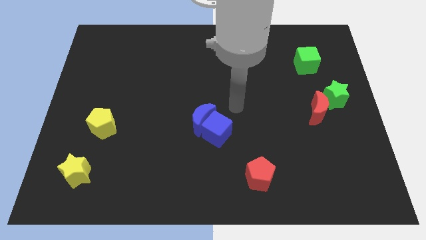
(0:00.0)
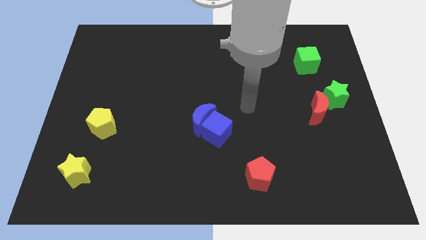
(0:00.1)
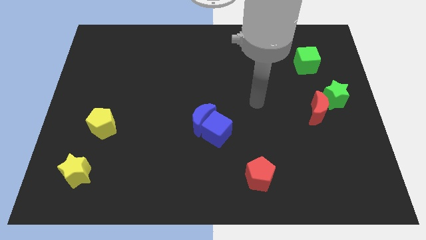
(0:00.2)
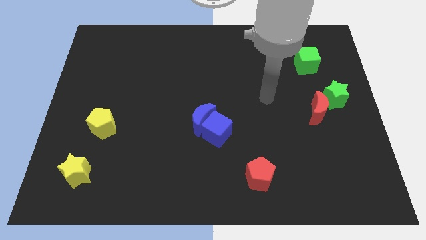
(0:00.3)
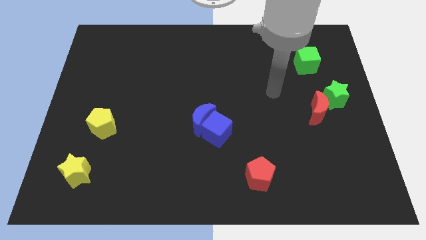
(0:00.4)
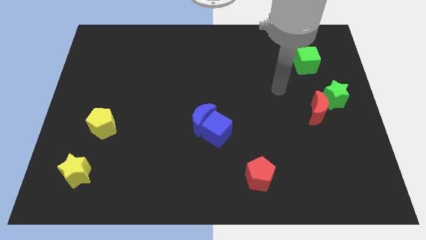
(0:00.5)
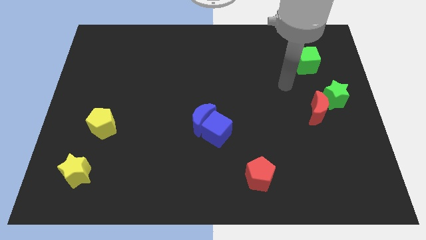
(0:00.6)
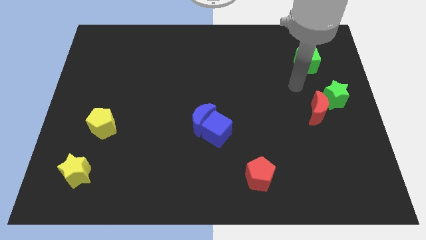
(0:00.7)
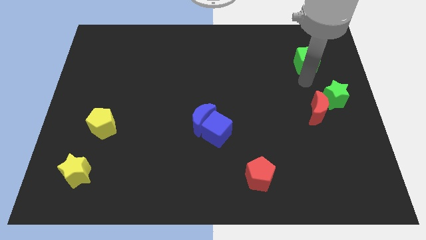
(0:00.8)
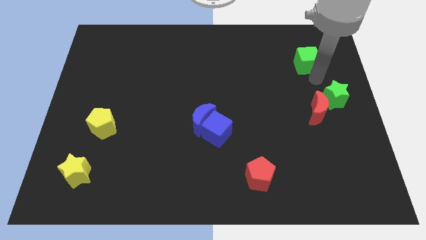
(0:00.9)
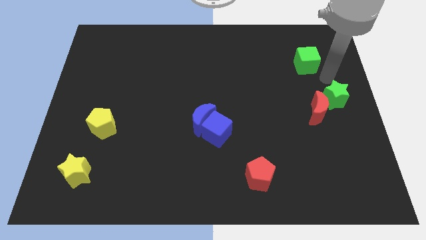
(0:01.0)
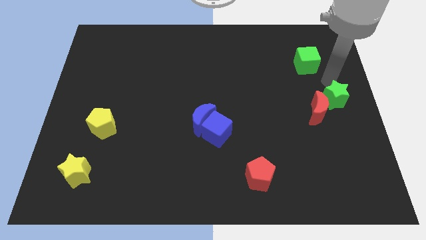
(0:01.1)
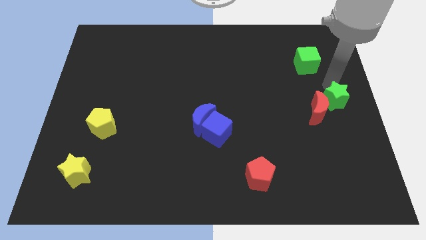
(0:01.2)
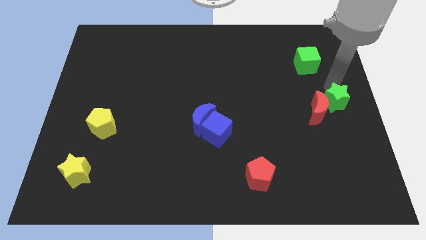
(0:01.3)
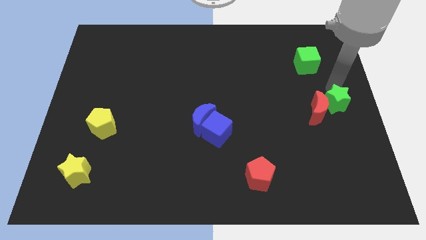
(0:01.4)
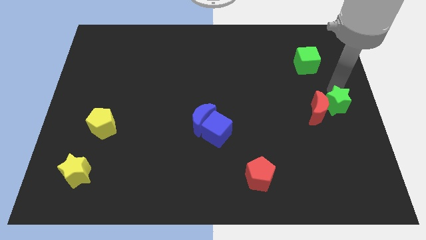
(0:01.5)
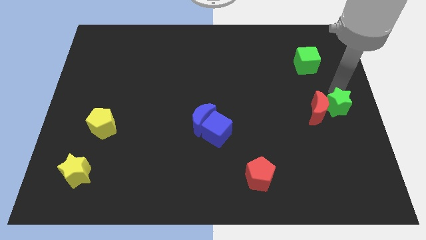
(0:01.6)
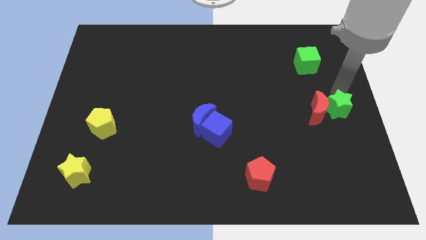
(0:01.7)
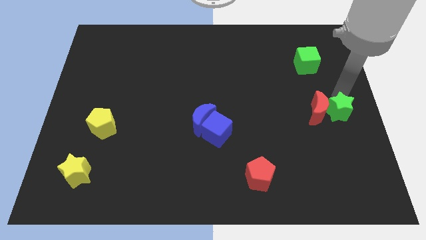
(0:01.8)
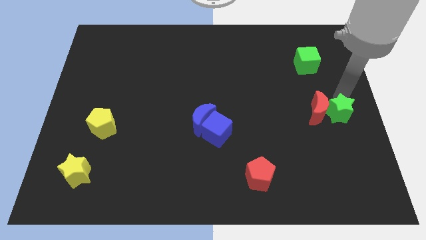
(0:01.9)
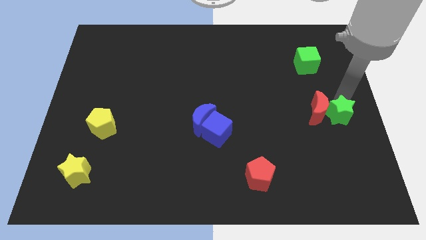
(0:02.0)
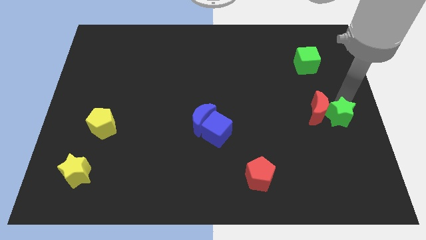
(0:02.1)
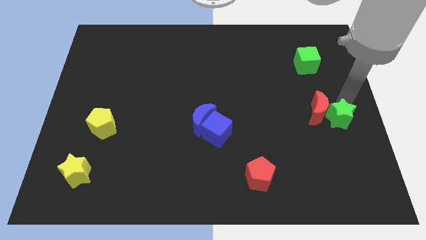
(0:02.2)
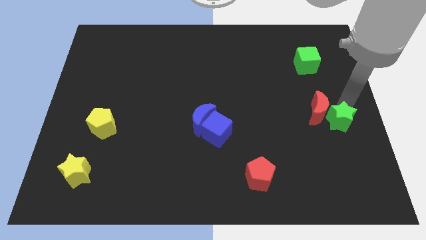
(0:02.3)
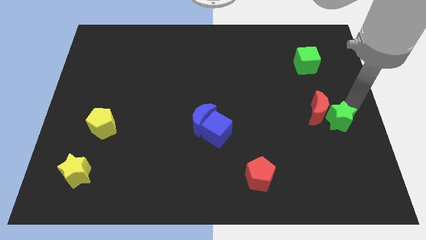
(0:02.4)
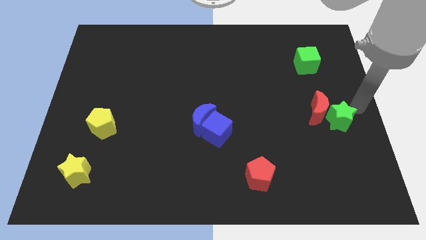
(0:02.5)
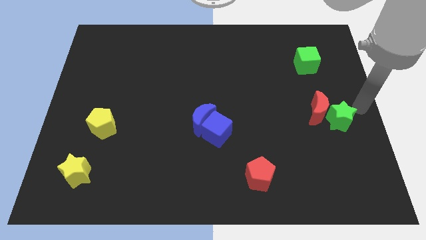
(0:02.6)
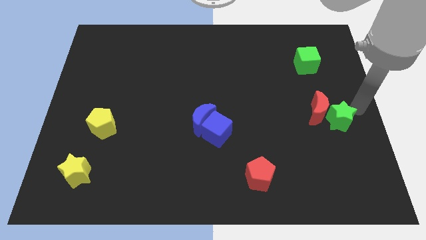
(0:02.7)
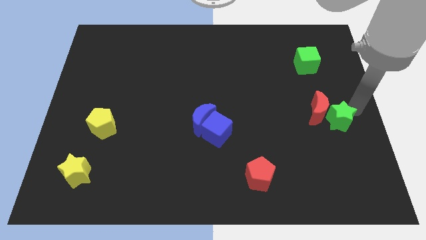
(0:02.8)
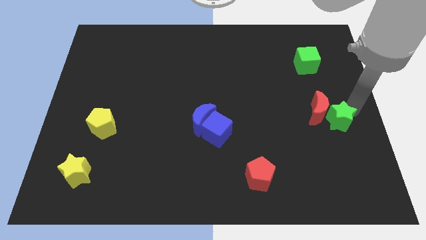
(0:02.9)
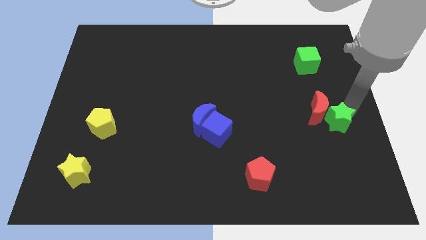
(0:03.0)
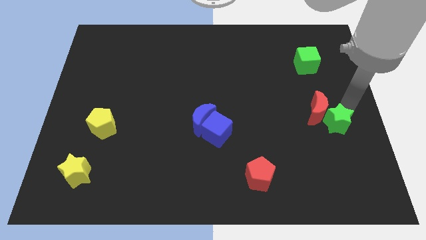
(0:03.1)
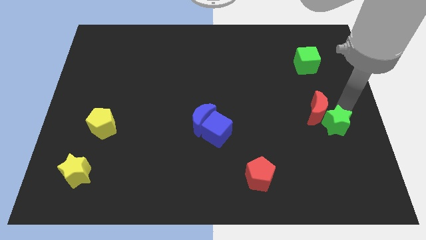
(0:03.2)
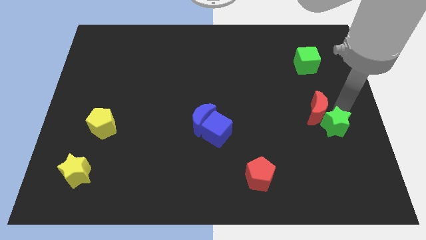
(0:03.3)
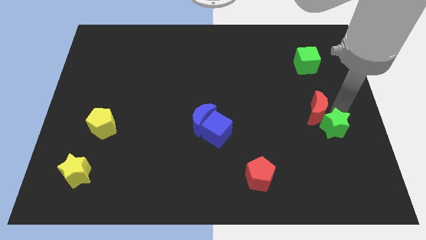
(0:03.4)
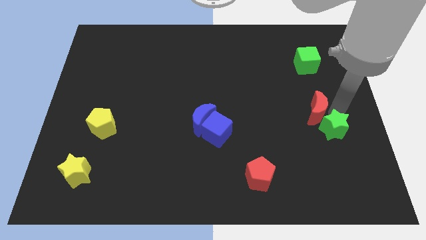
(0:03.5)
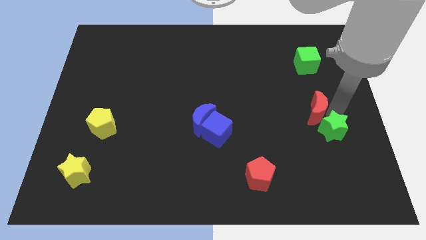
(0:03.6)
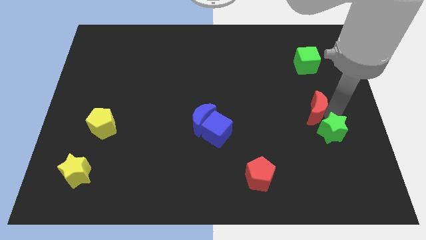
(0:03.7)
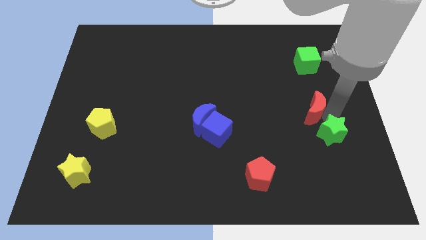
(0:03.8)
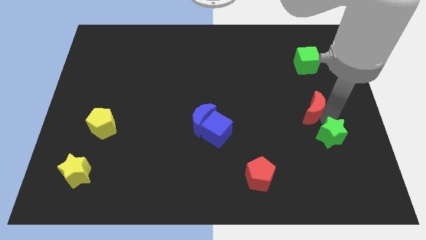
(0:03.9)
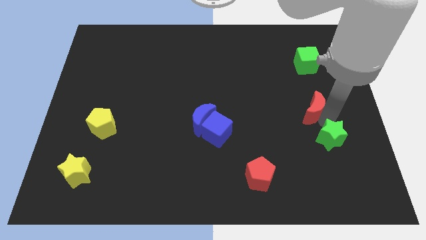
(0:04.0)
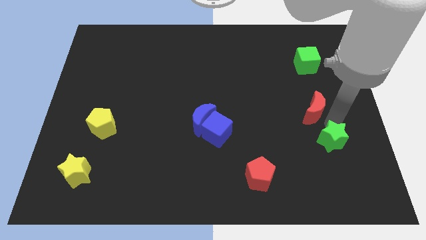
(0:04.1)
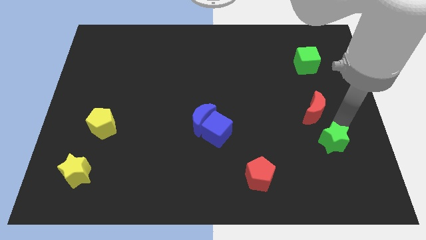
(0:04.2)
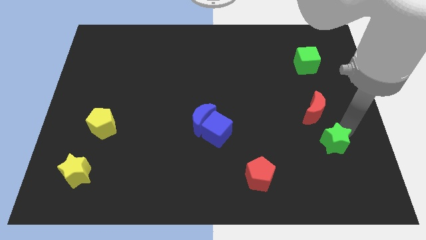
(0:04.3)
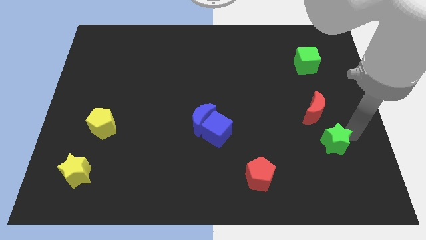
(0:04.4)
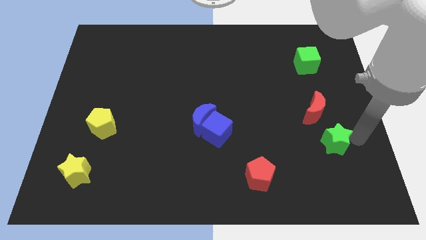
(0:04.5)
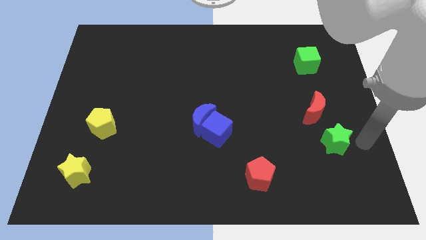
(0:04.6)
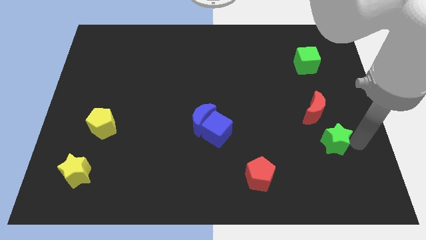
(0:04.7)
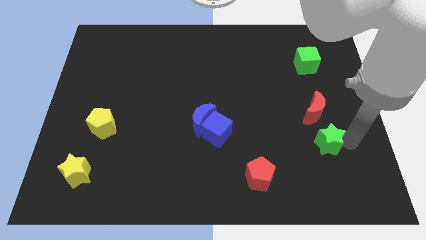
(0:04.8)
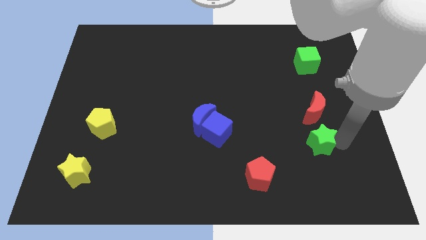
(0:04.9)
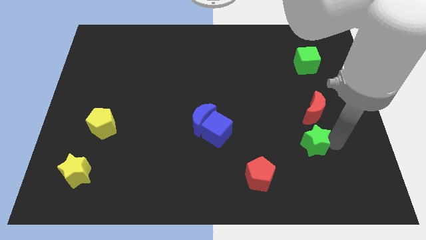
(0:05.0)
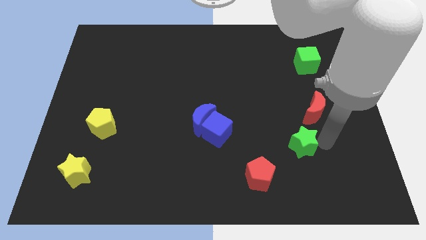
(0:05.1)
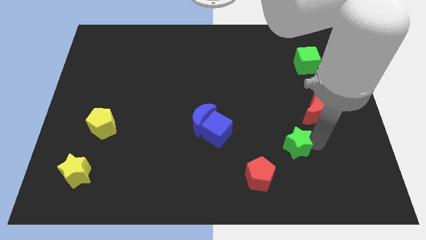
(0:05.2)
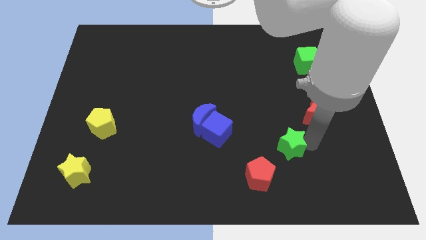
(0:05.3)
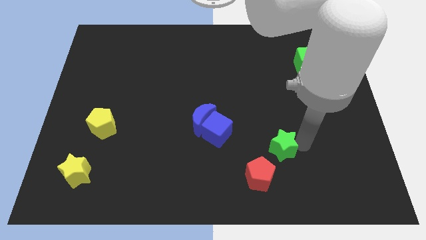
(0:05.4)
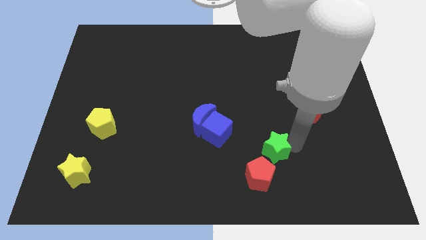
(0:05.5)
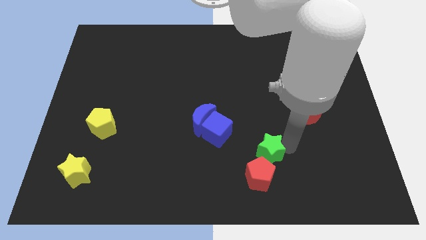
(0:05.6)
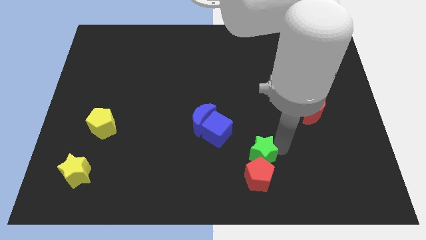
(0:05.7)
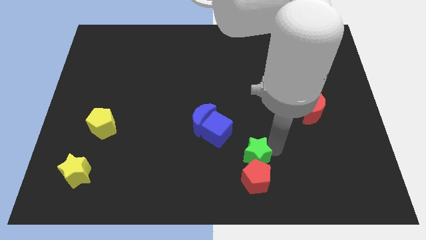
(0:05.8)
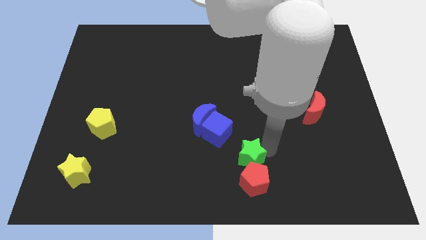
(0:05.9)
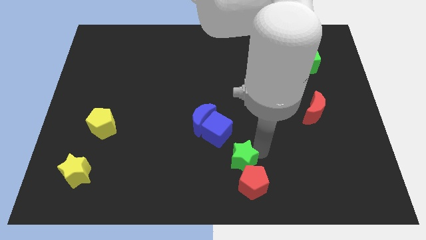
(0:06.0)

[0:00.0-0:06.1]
put the green star to the bottom side
